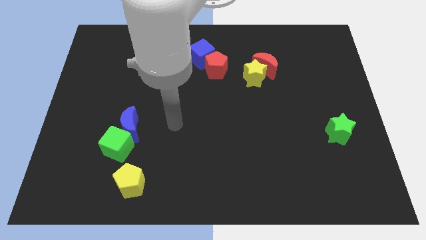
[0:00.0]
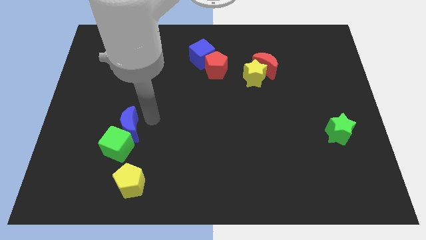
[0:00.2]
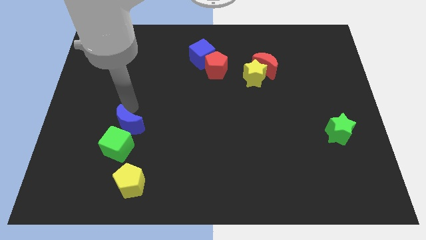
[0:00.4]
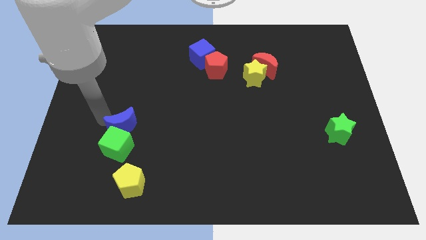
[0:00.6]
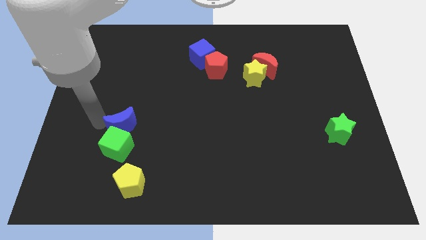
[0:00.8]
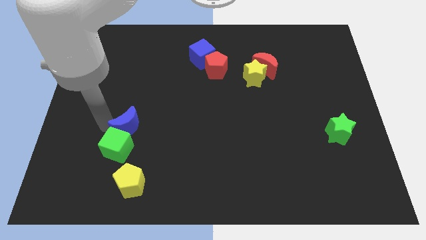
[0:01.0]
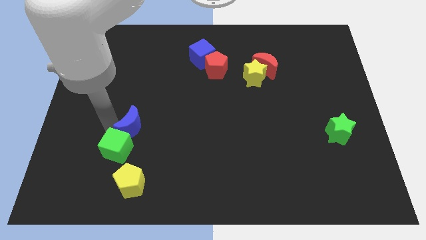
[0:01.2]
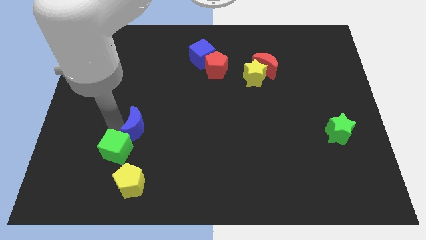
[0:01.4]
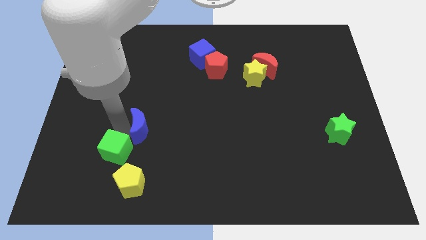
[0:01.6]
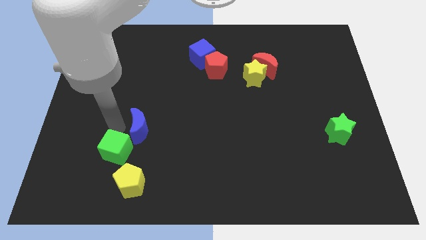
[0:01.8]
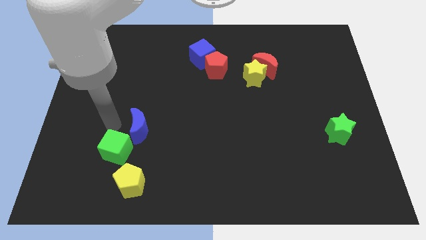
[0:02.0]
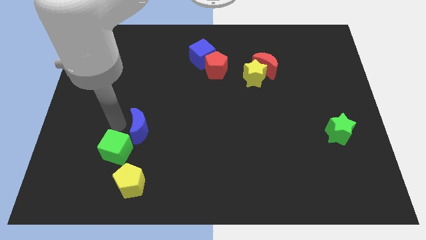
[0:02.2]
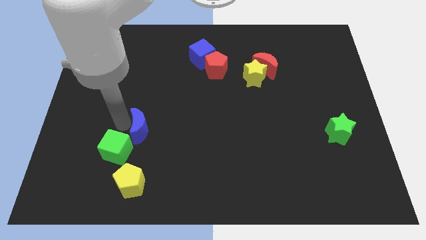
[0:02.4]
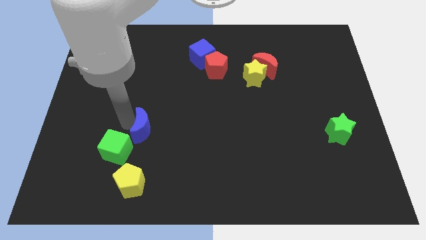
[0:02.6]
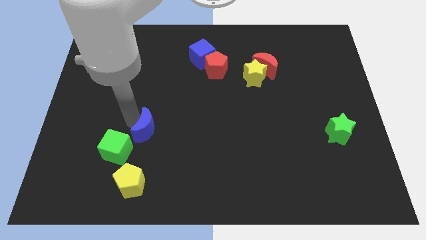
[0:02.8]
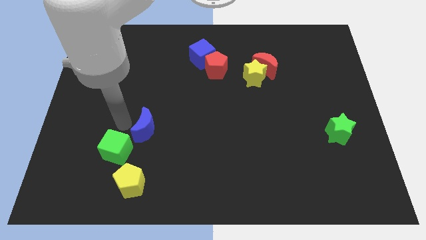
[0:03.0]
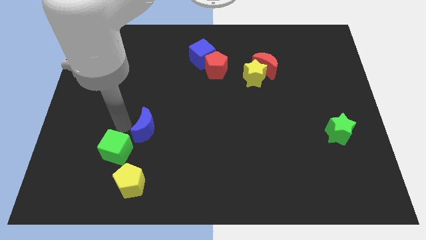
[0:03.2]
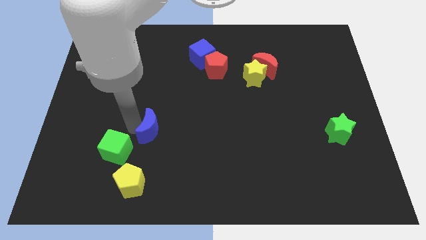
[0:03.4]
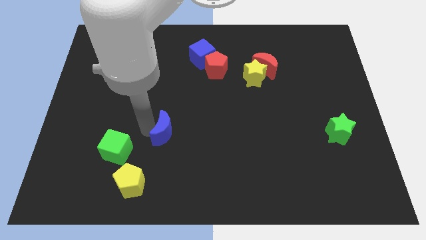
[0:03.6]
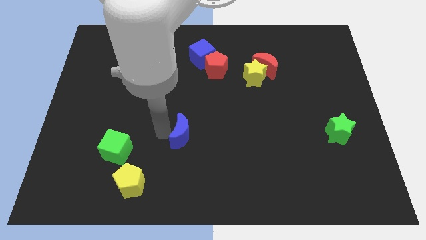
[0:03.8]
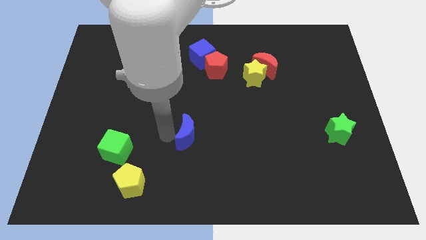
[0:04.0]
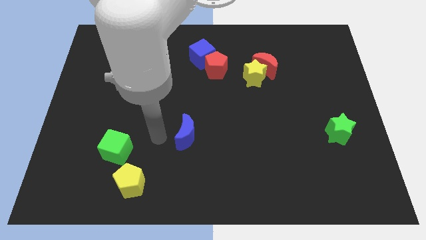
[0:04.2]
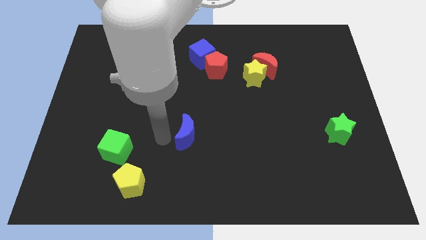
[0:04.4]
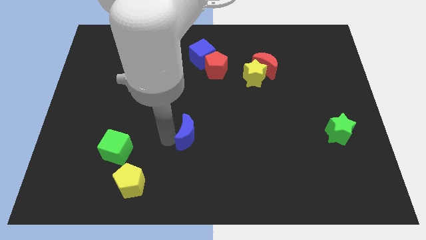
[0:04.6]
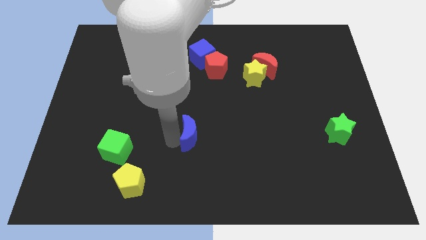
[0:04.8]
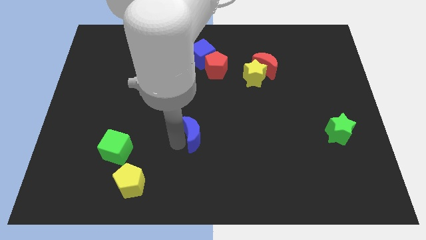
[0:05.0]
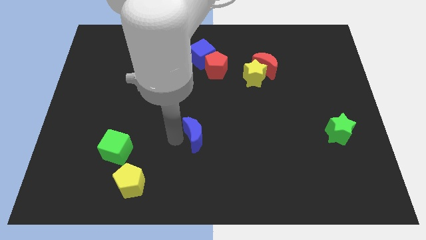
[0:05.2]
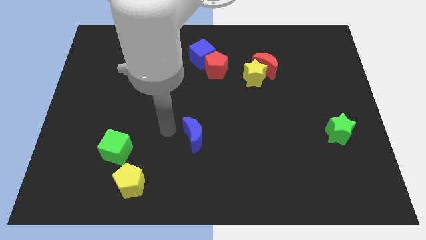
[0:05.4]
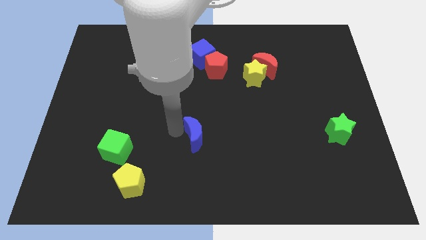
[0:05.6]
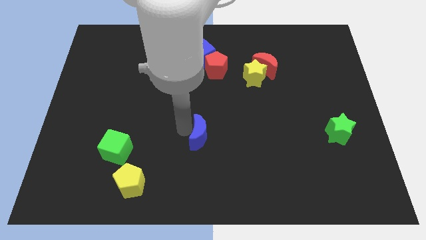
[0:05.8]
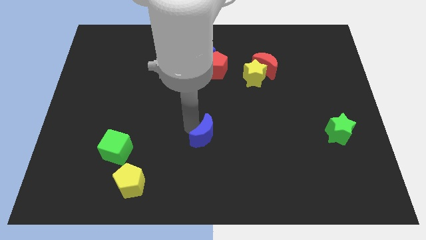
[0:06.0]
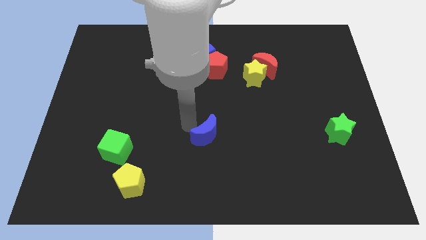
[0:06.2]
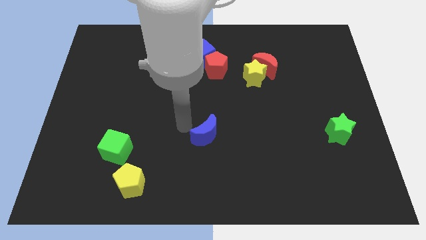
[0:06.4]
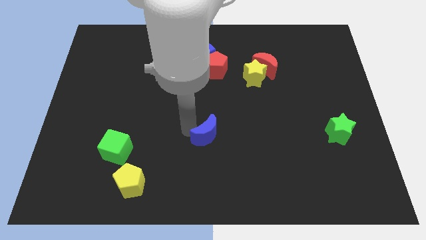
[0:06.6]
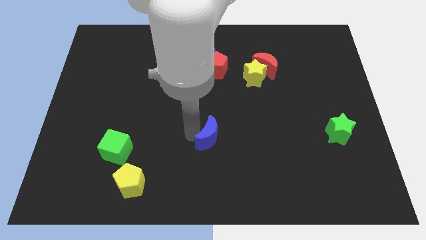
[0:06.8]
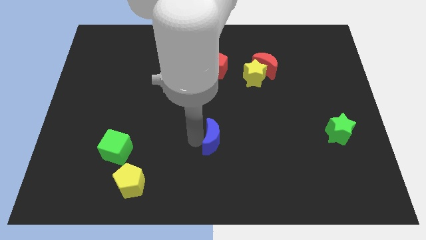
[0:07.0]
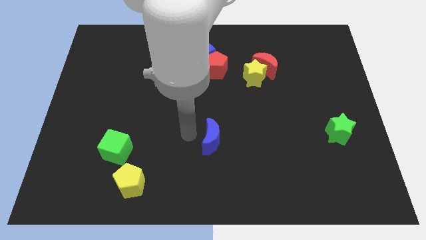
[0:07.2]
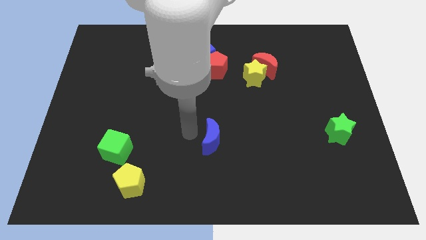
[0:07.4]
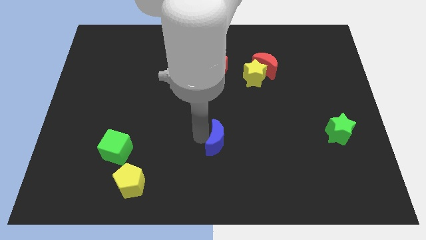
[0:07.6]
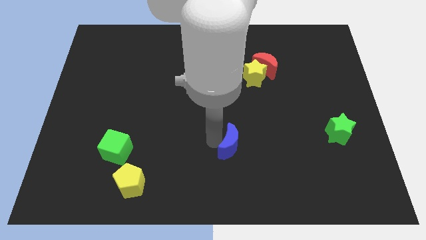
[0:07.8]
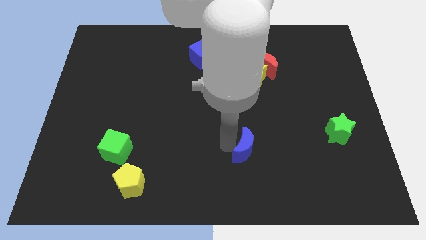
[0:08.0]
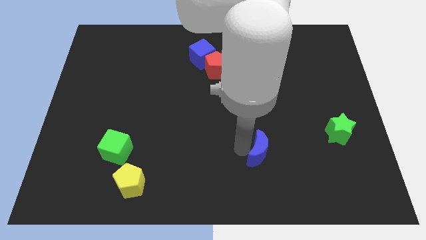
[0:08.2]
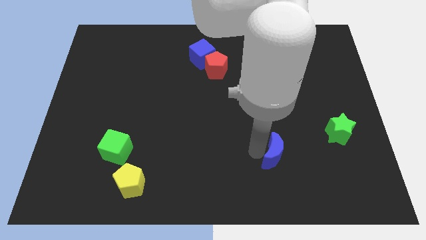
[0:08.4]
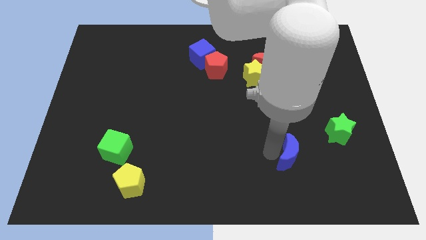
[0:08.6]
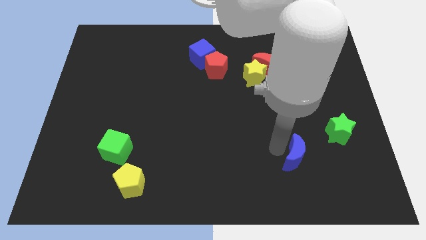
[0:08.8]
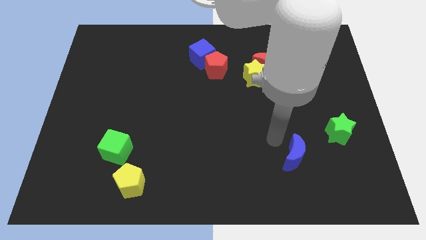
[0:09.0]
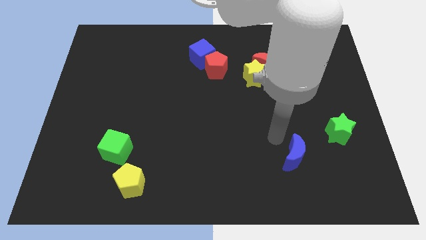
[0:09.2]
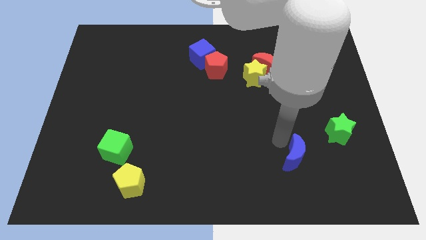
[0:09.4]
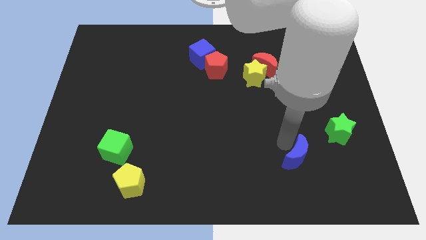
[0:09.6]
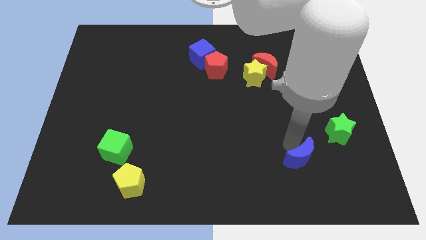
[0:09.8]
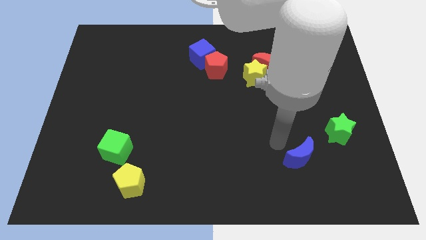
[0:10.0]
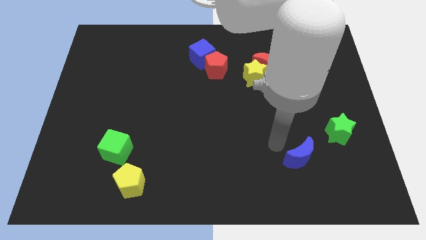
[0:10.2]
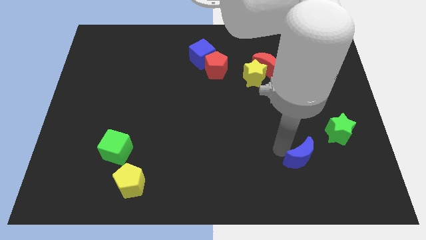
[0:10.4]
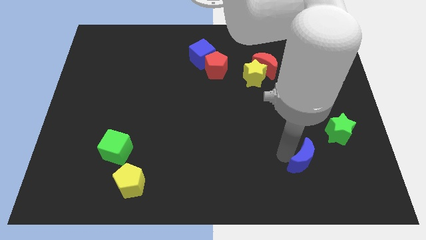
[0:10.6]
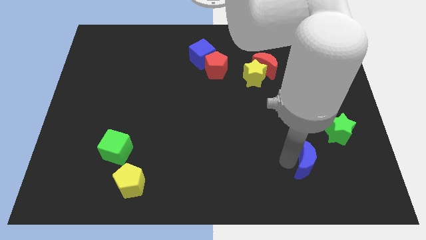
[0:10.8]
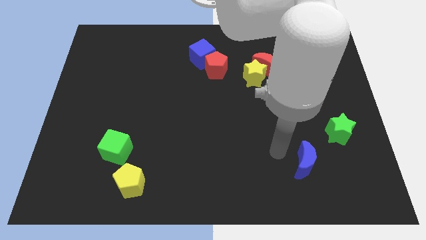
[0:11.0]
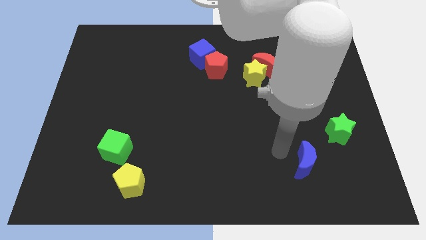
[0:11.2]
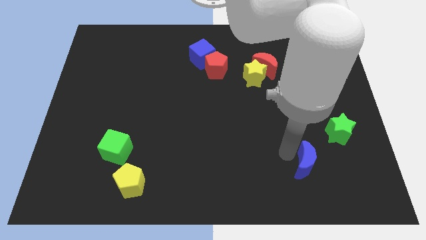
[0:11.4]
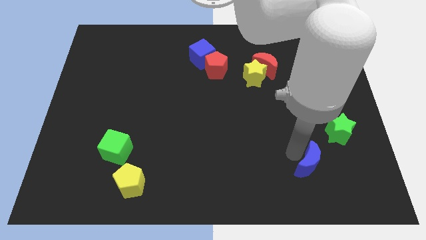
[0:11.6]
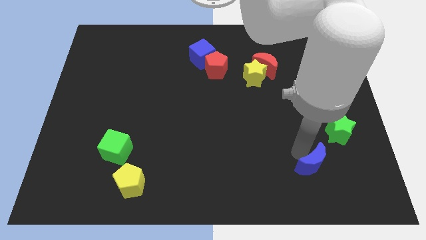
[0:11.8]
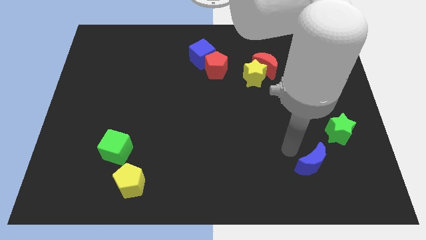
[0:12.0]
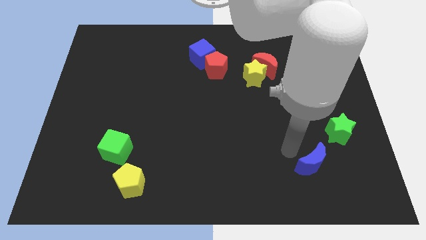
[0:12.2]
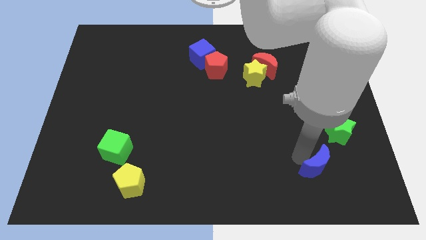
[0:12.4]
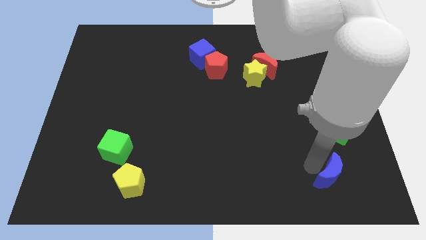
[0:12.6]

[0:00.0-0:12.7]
move the blue moon below the green star

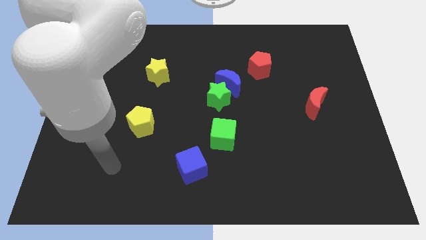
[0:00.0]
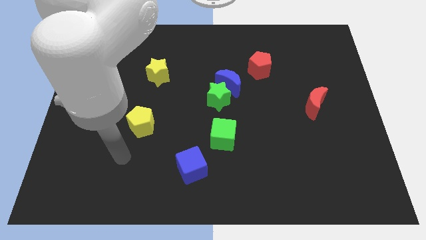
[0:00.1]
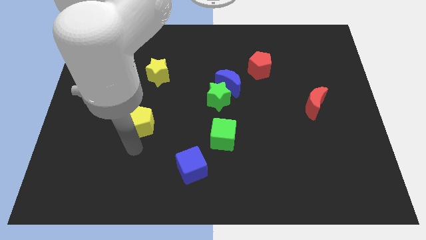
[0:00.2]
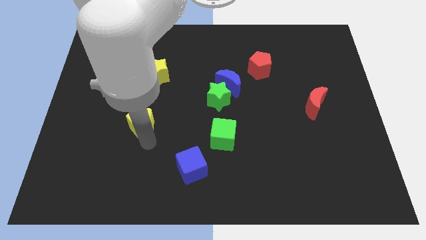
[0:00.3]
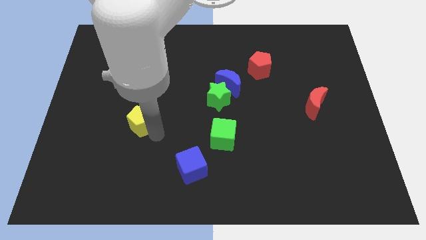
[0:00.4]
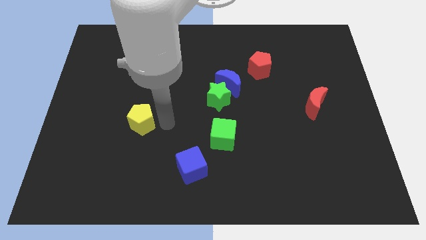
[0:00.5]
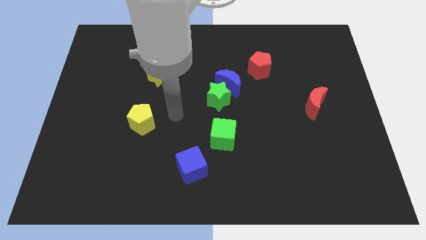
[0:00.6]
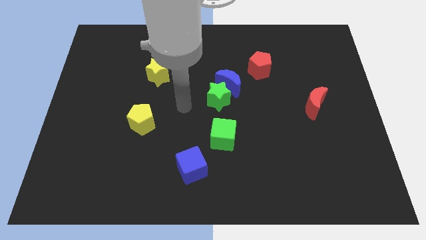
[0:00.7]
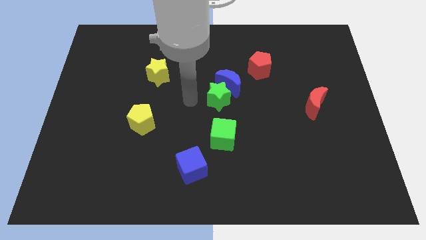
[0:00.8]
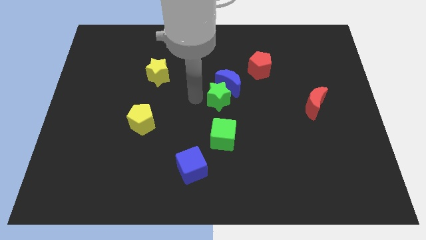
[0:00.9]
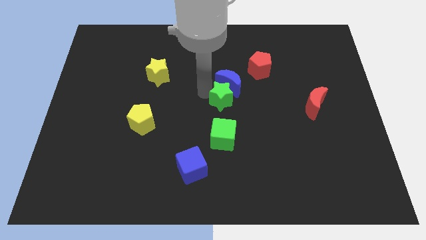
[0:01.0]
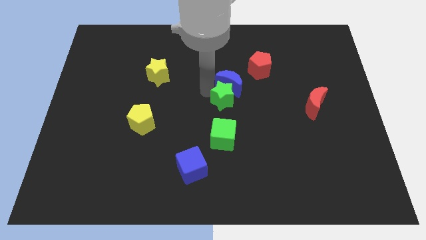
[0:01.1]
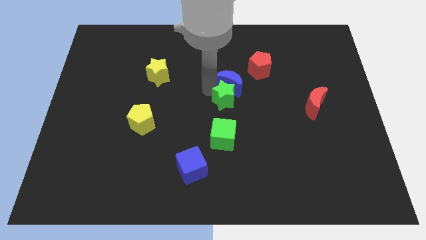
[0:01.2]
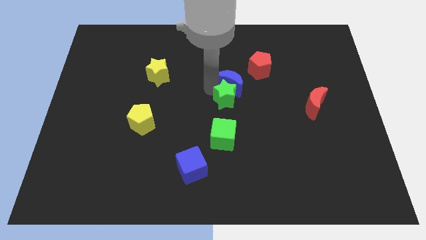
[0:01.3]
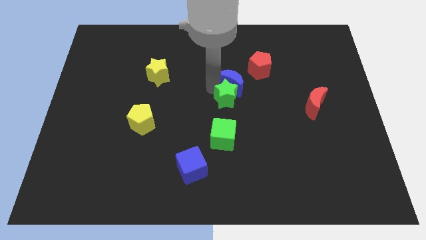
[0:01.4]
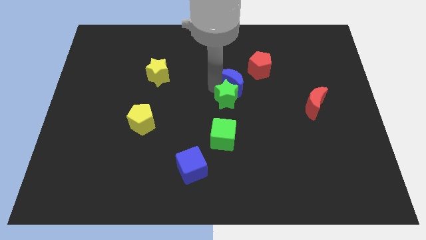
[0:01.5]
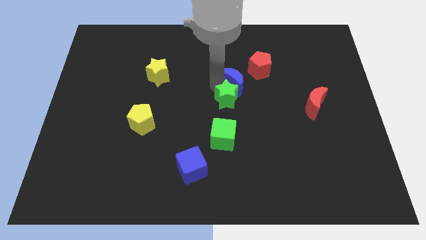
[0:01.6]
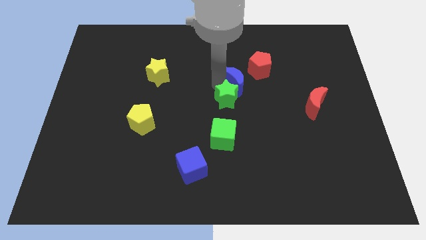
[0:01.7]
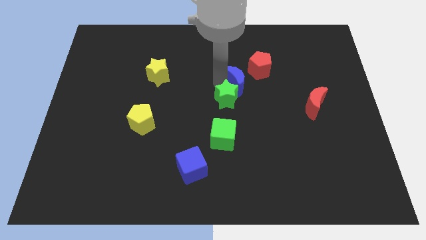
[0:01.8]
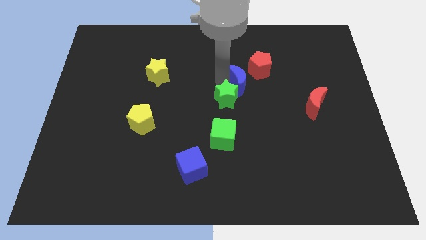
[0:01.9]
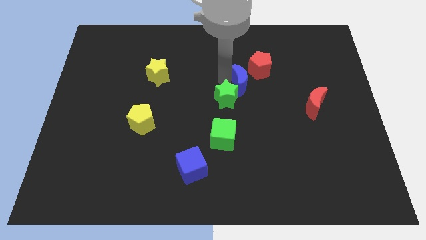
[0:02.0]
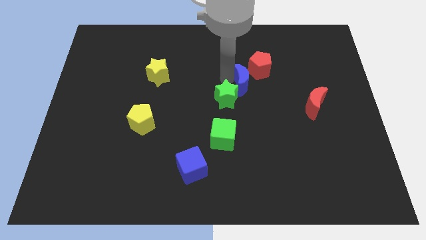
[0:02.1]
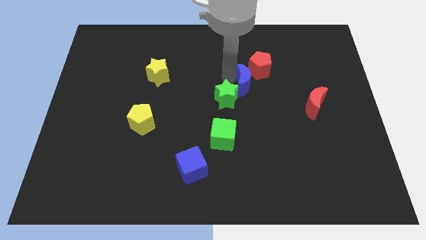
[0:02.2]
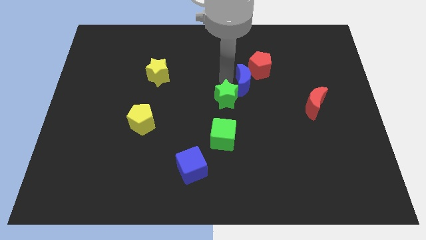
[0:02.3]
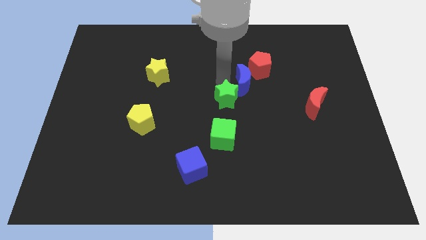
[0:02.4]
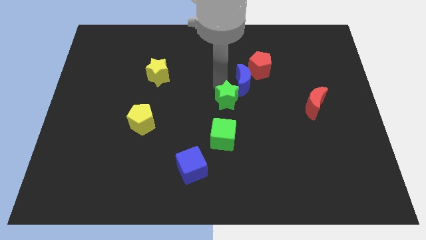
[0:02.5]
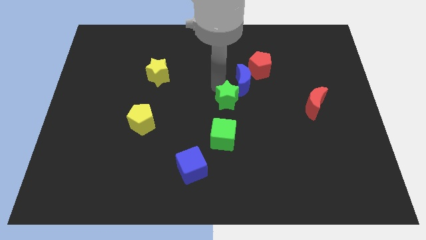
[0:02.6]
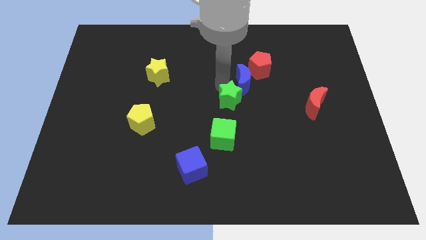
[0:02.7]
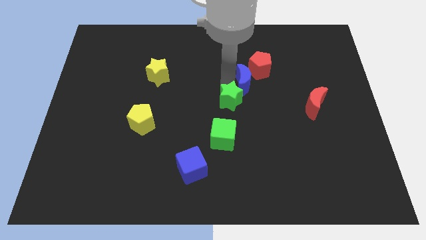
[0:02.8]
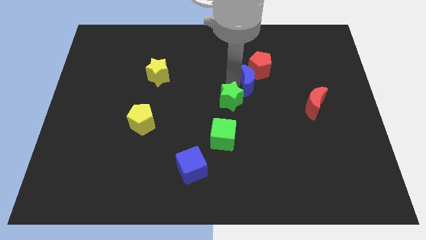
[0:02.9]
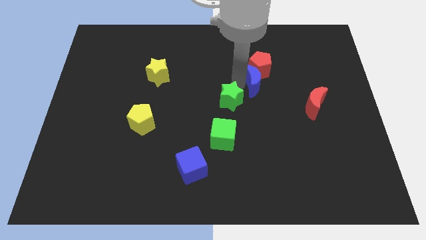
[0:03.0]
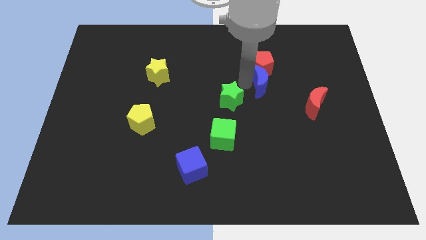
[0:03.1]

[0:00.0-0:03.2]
move the blue moon to the bottom right of the red pentagon
